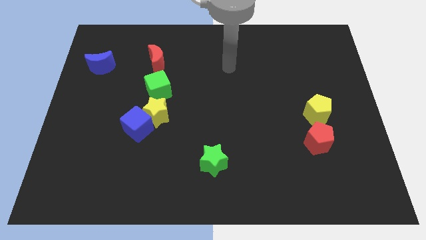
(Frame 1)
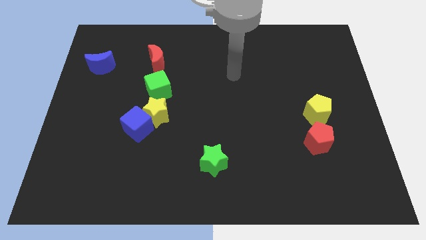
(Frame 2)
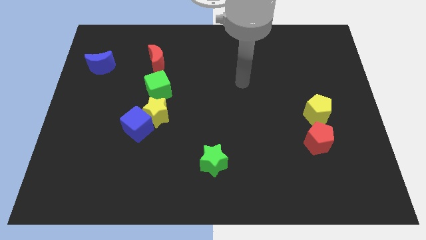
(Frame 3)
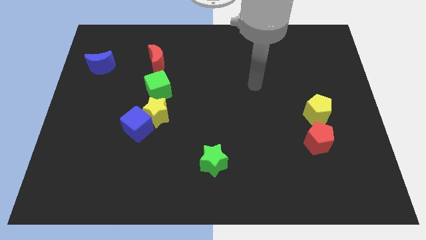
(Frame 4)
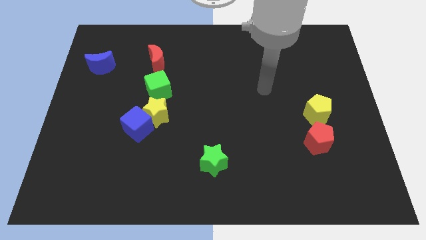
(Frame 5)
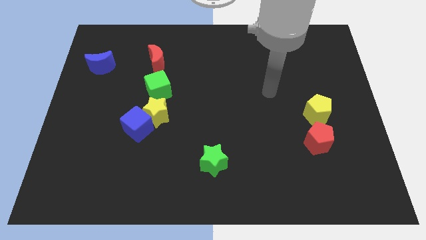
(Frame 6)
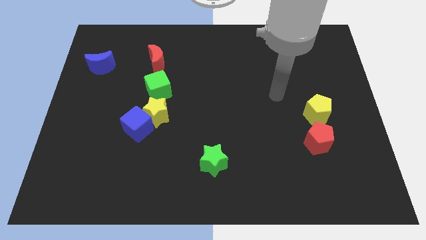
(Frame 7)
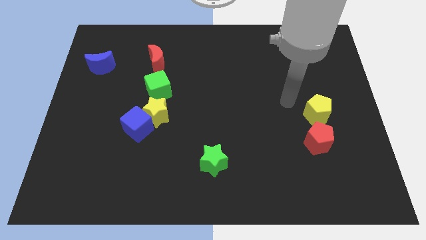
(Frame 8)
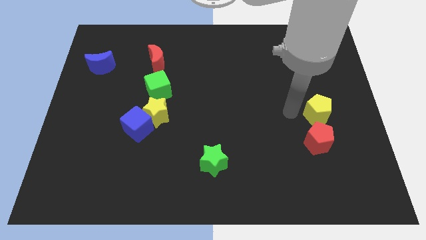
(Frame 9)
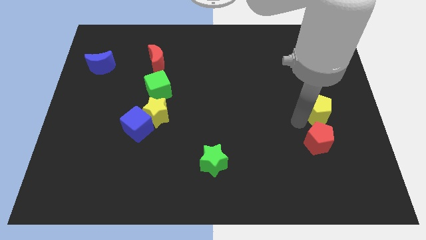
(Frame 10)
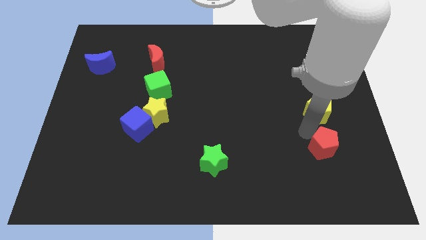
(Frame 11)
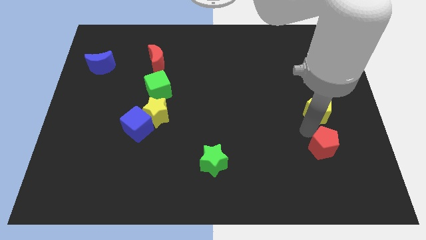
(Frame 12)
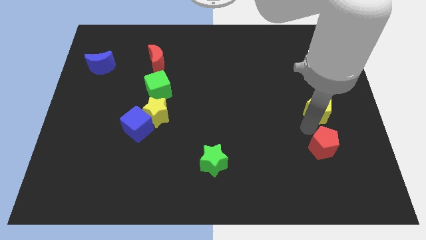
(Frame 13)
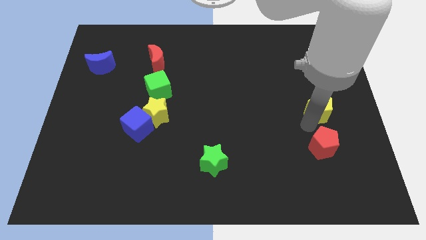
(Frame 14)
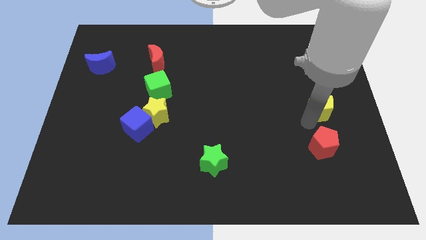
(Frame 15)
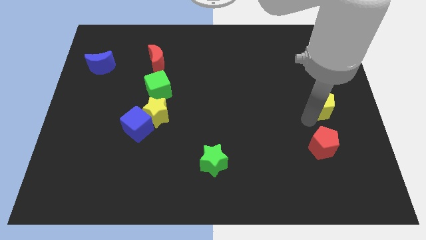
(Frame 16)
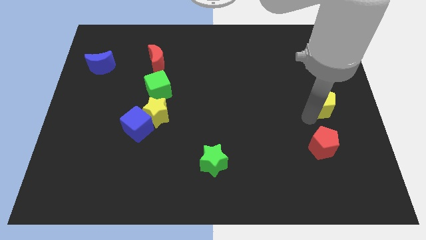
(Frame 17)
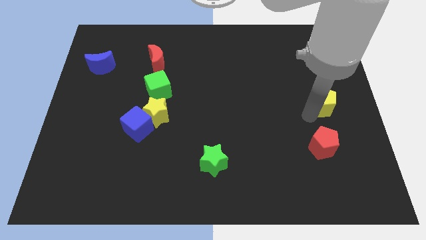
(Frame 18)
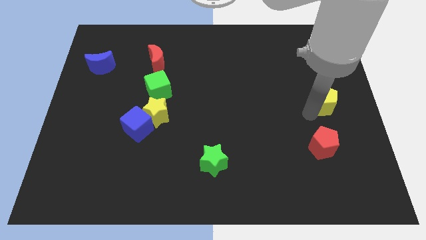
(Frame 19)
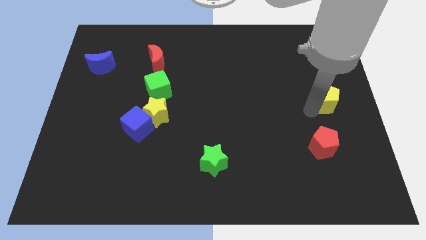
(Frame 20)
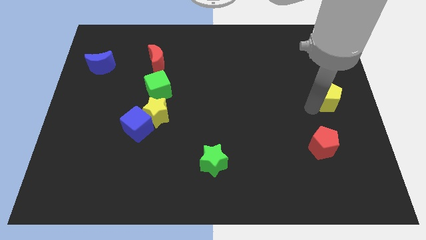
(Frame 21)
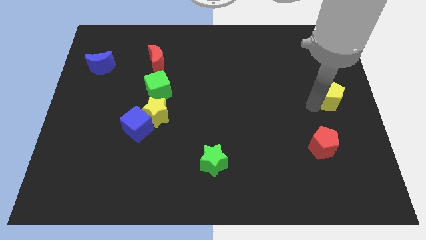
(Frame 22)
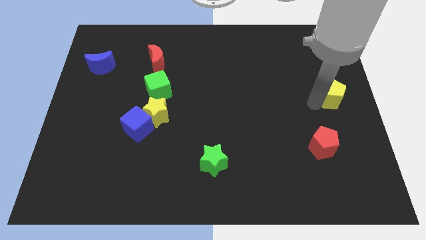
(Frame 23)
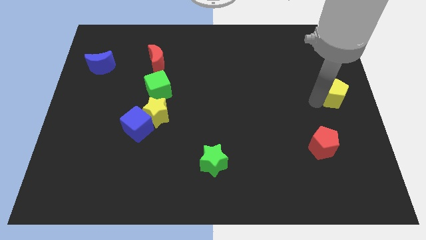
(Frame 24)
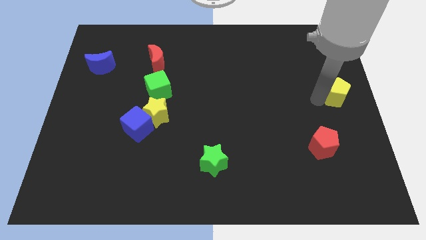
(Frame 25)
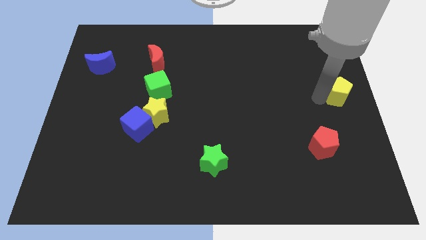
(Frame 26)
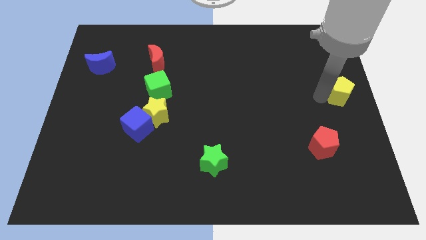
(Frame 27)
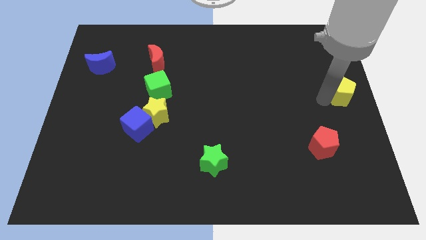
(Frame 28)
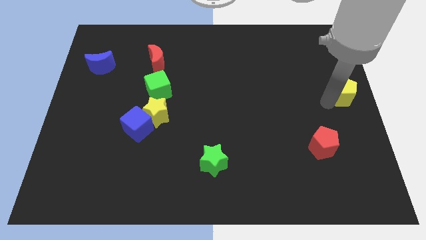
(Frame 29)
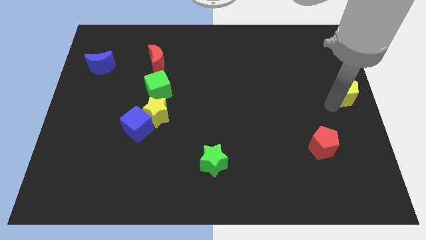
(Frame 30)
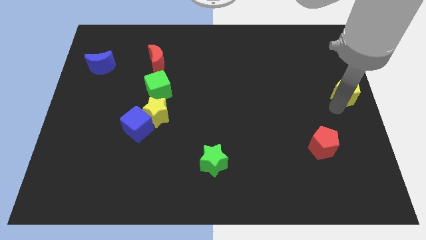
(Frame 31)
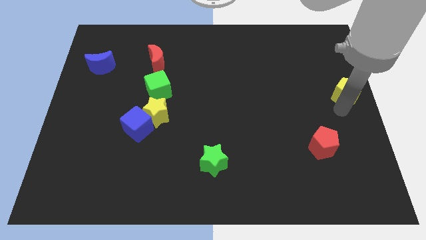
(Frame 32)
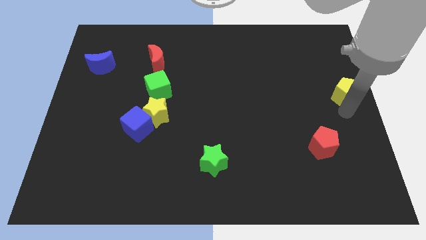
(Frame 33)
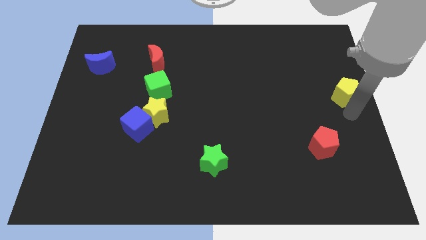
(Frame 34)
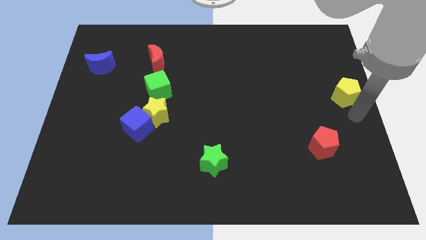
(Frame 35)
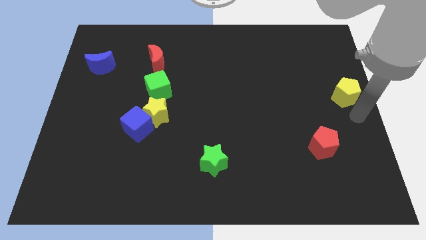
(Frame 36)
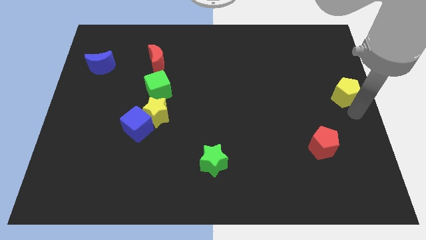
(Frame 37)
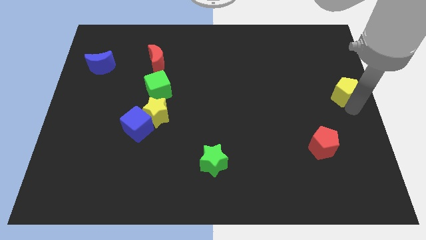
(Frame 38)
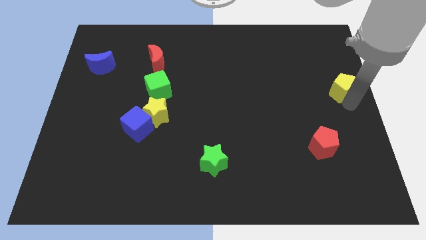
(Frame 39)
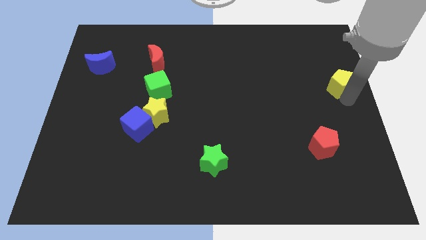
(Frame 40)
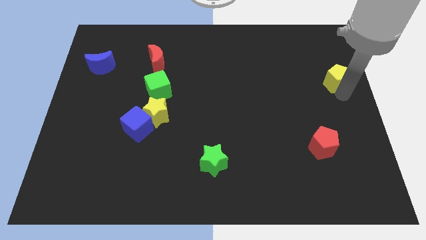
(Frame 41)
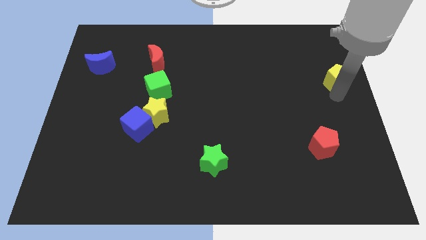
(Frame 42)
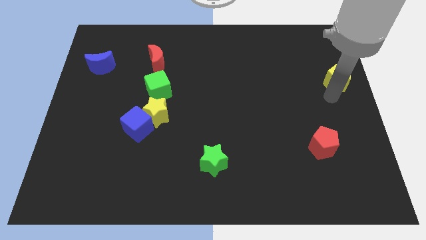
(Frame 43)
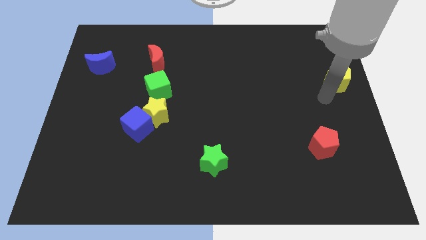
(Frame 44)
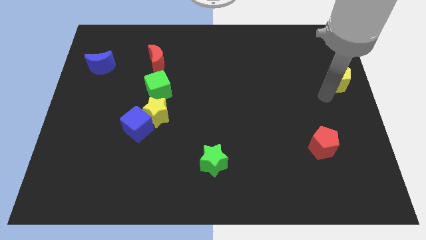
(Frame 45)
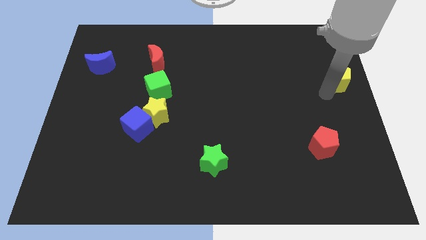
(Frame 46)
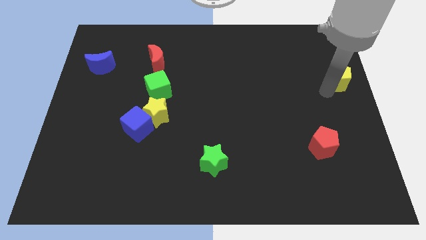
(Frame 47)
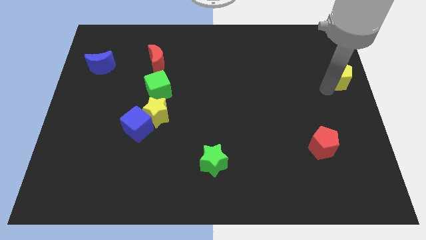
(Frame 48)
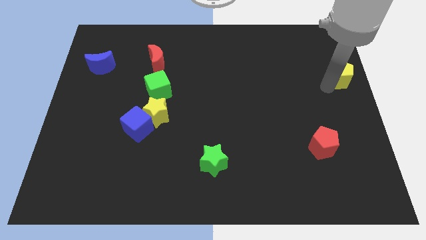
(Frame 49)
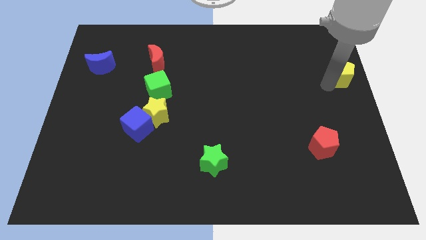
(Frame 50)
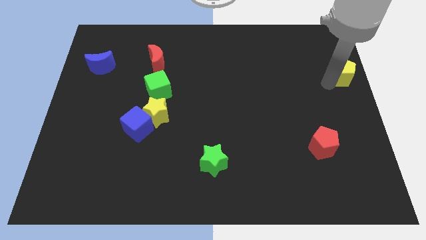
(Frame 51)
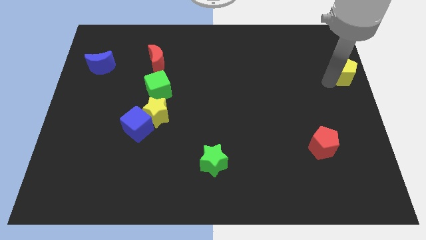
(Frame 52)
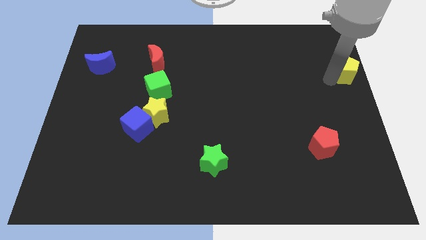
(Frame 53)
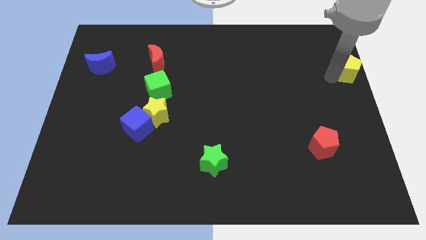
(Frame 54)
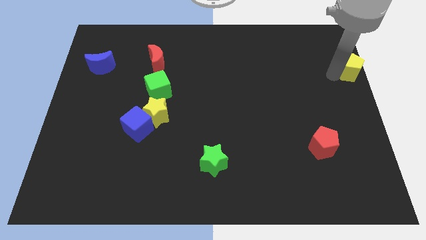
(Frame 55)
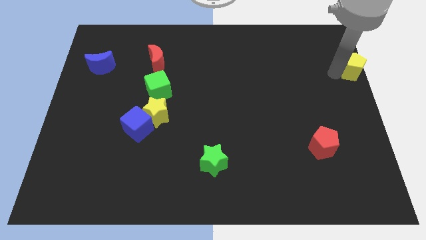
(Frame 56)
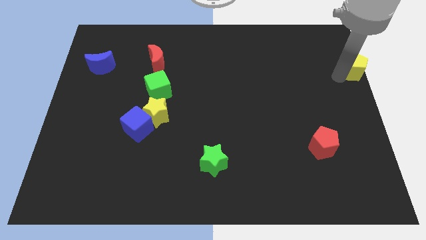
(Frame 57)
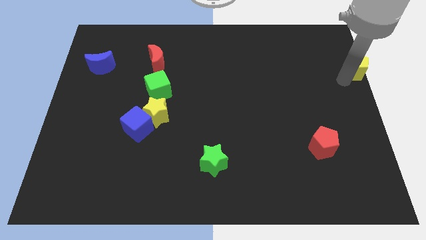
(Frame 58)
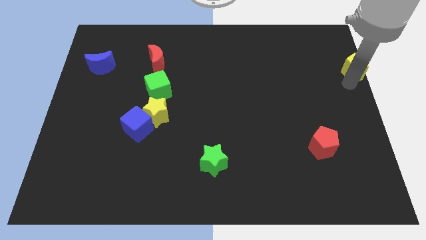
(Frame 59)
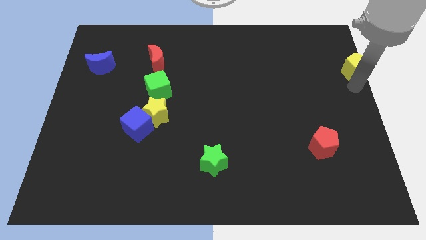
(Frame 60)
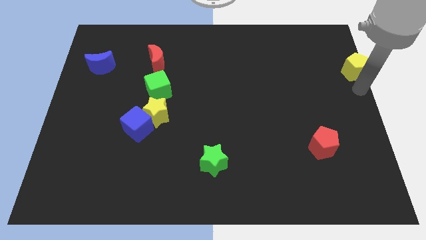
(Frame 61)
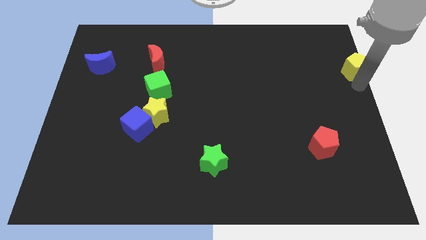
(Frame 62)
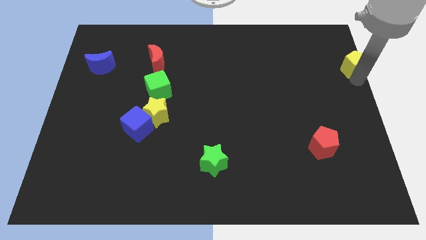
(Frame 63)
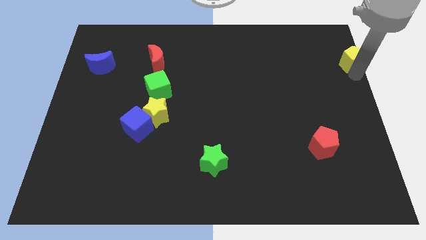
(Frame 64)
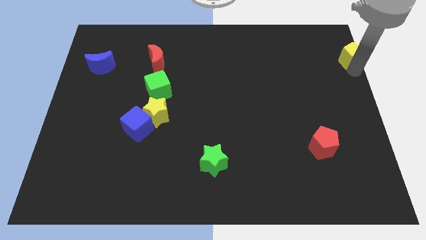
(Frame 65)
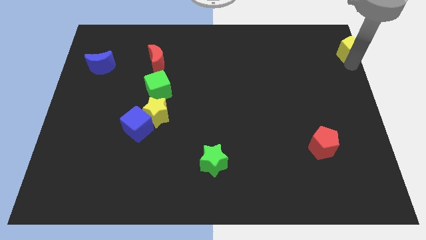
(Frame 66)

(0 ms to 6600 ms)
slide the yellow pentagon to the upper right corner

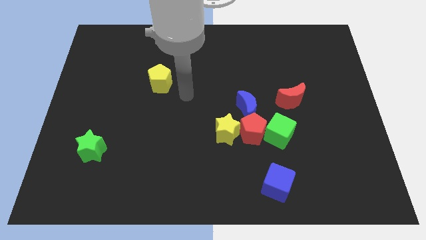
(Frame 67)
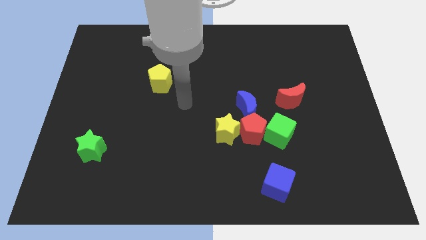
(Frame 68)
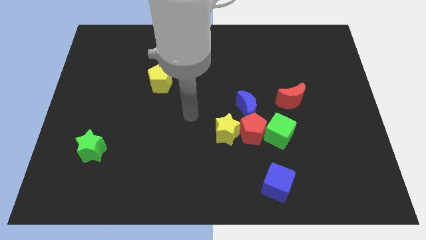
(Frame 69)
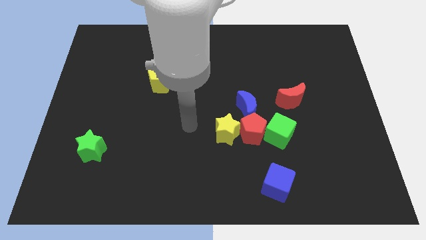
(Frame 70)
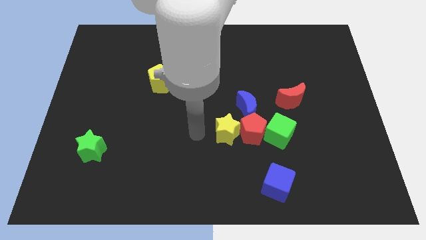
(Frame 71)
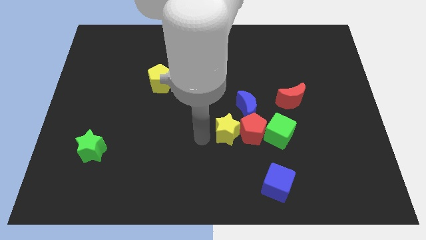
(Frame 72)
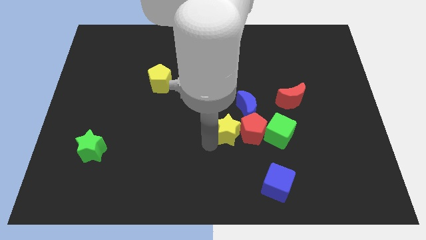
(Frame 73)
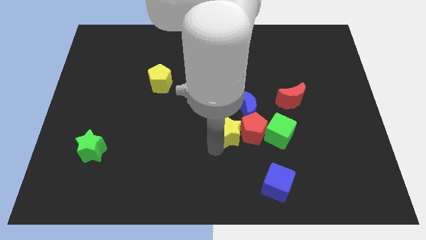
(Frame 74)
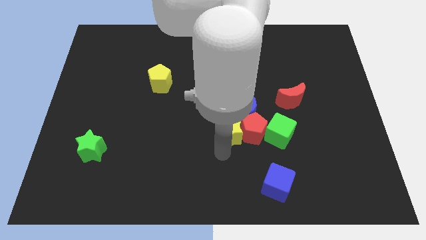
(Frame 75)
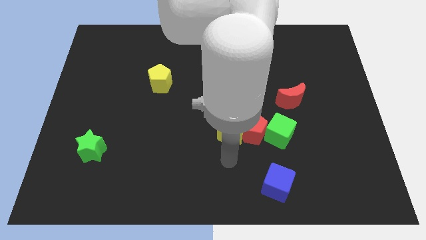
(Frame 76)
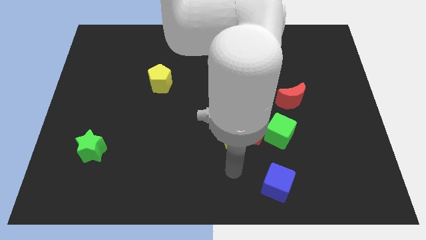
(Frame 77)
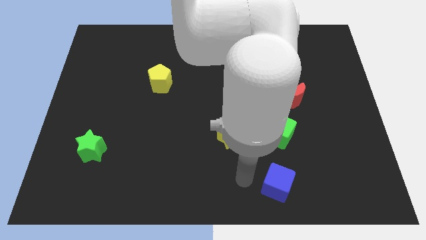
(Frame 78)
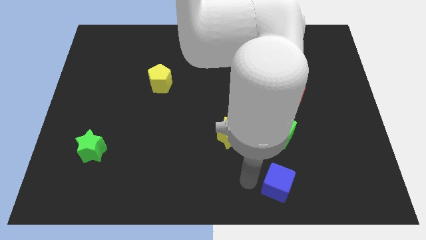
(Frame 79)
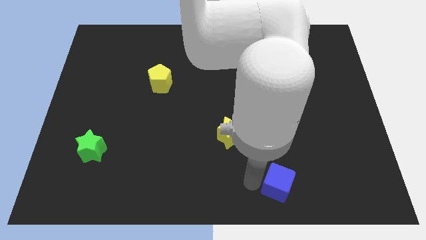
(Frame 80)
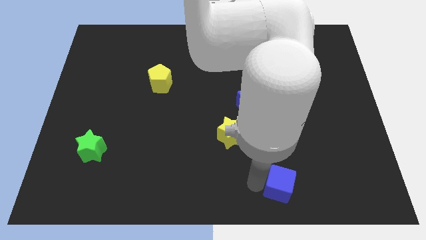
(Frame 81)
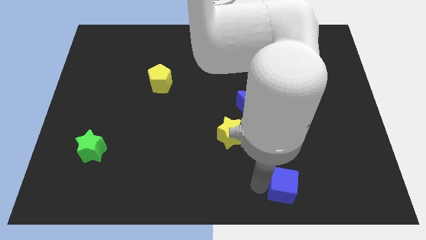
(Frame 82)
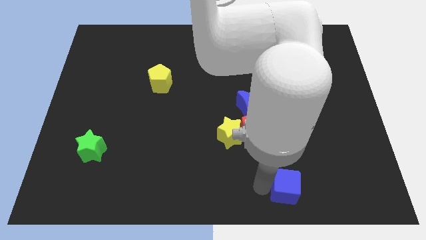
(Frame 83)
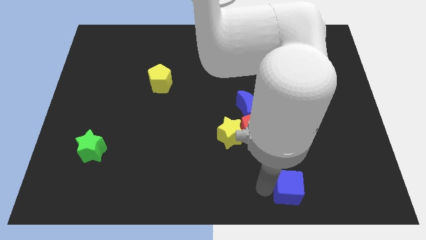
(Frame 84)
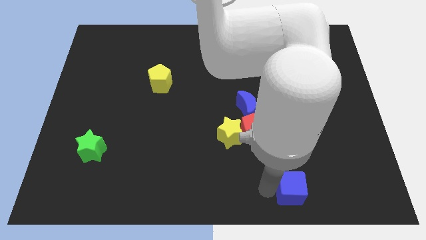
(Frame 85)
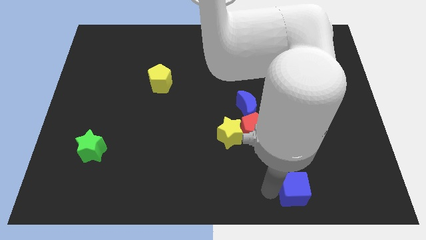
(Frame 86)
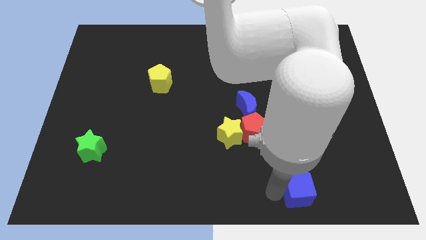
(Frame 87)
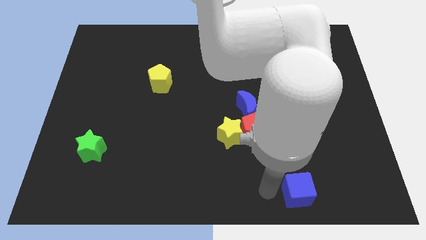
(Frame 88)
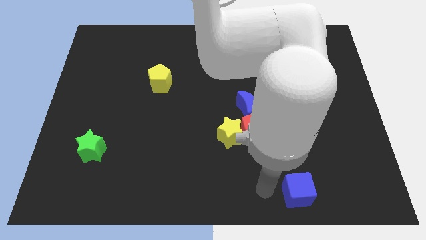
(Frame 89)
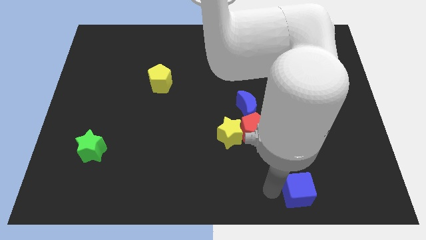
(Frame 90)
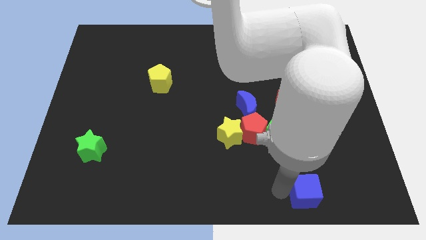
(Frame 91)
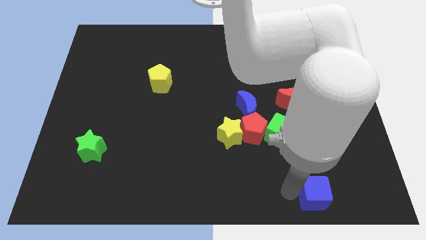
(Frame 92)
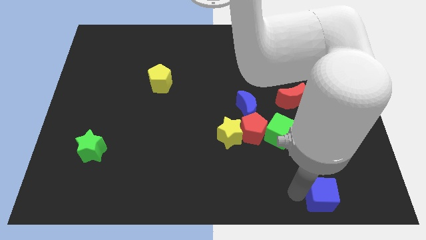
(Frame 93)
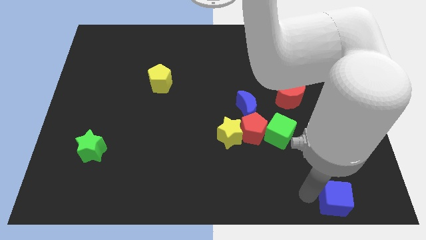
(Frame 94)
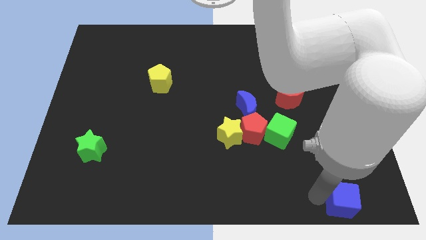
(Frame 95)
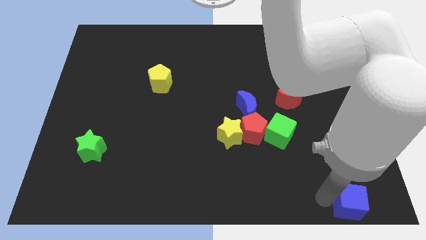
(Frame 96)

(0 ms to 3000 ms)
move the blue cube to the bottom right corner
